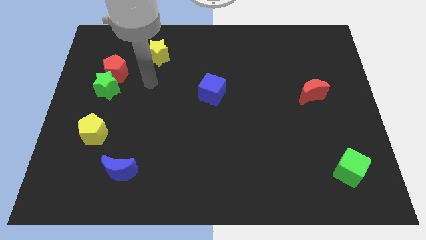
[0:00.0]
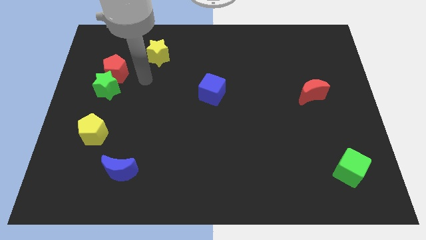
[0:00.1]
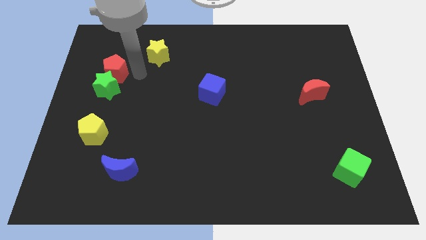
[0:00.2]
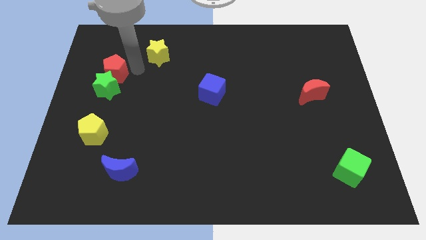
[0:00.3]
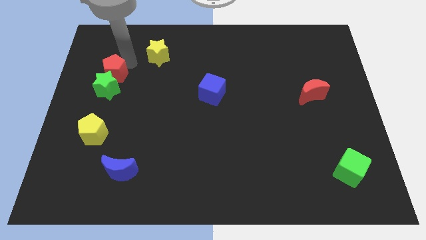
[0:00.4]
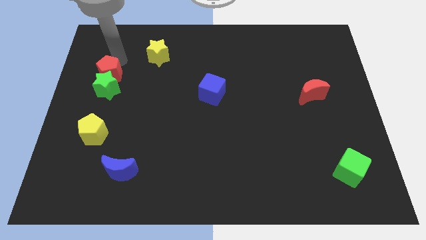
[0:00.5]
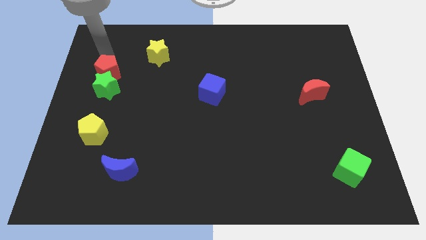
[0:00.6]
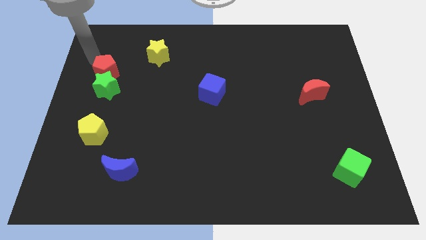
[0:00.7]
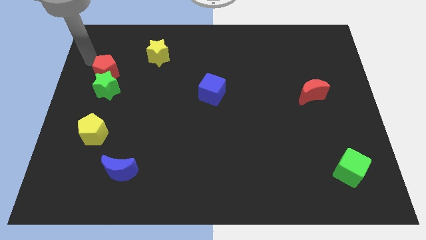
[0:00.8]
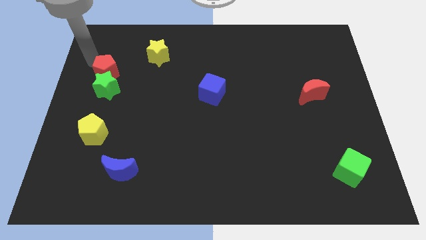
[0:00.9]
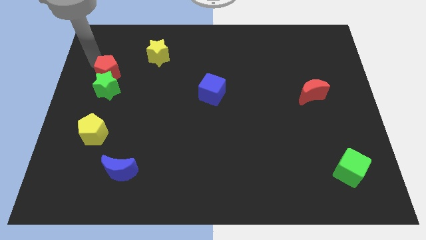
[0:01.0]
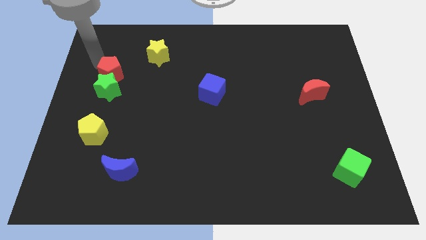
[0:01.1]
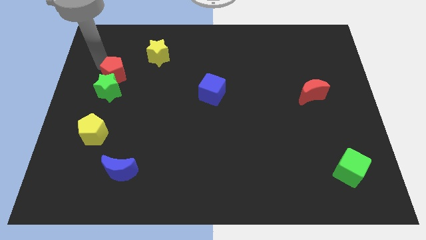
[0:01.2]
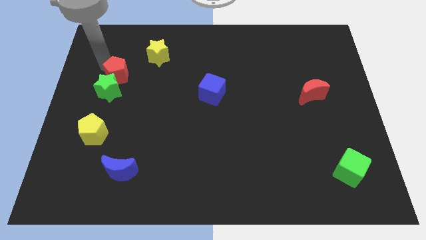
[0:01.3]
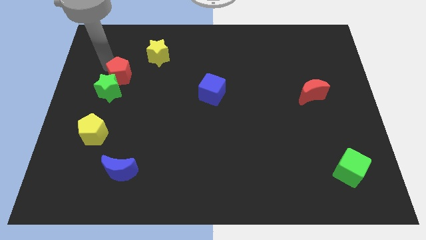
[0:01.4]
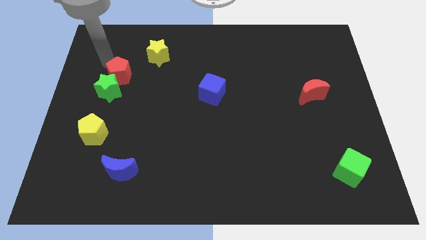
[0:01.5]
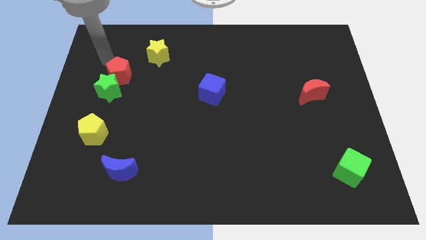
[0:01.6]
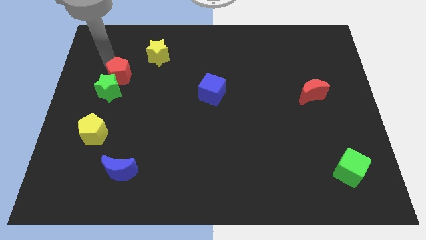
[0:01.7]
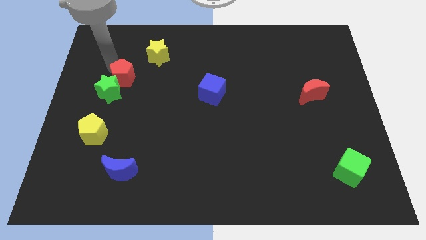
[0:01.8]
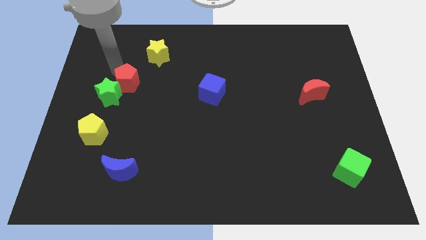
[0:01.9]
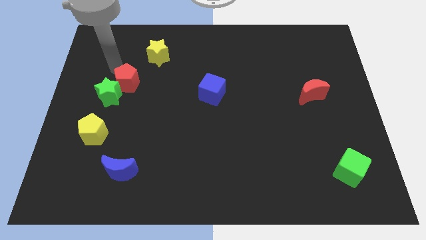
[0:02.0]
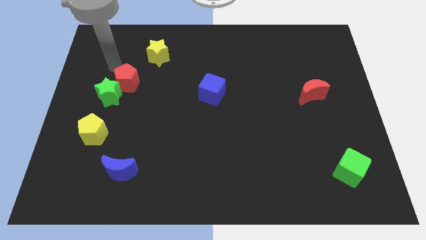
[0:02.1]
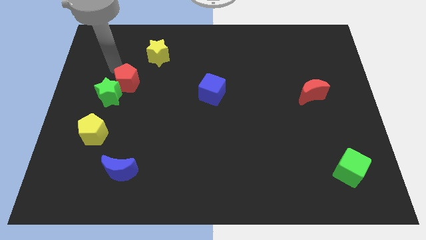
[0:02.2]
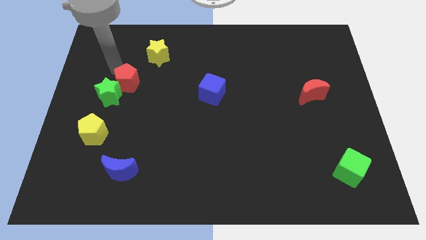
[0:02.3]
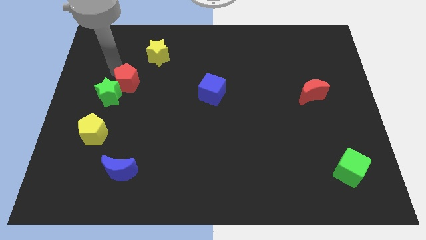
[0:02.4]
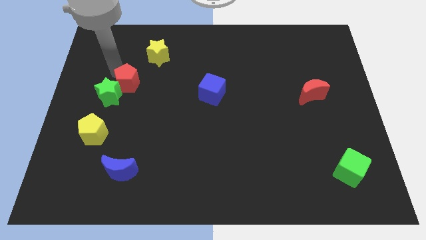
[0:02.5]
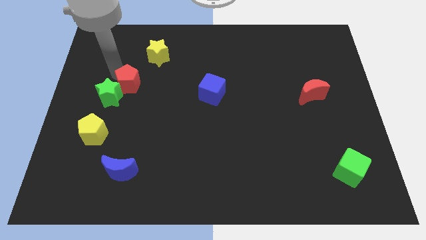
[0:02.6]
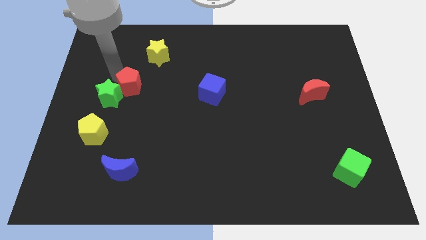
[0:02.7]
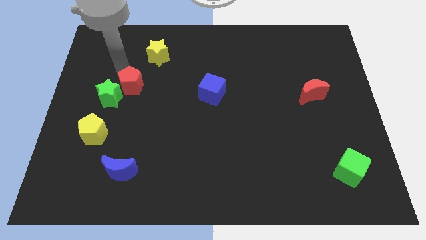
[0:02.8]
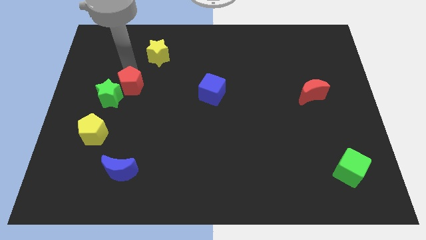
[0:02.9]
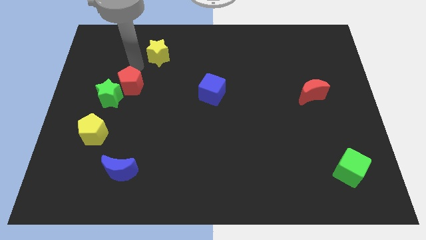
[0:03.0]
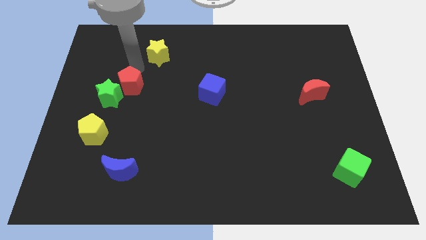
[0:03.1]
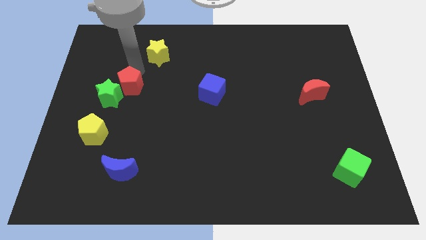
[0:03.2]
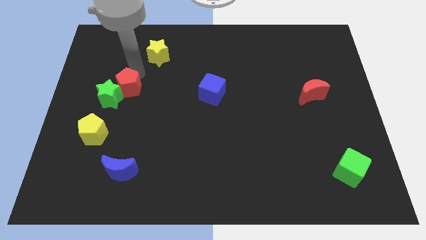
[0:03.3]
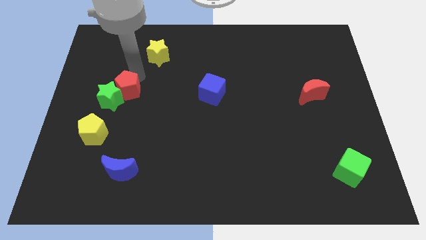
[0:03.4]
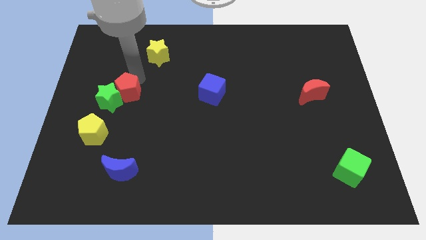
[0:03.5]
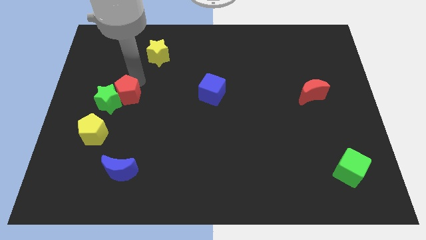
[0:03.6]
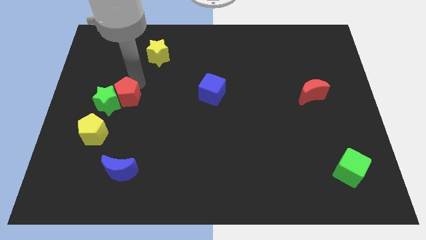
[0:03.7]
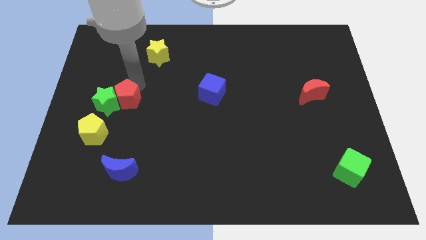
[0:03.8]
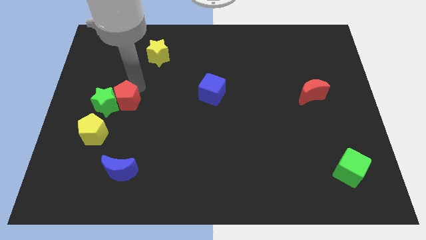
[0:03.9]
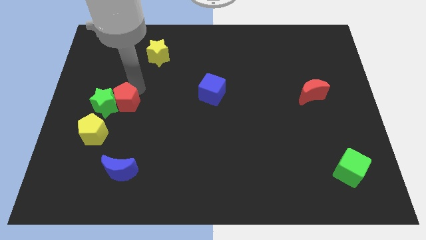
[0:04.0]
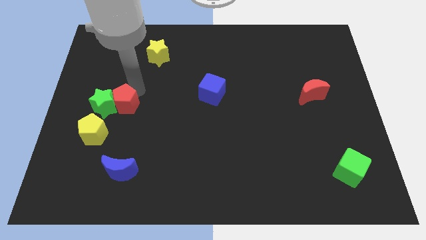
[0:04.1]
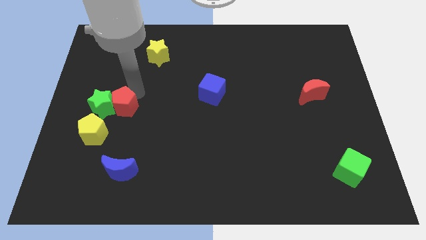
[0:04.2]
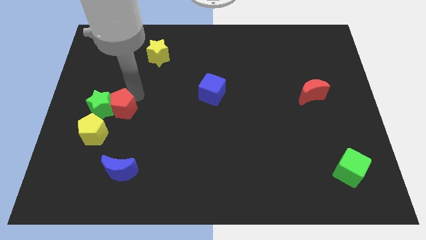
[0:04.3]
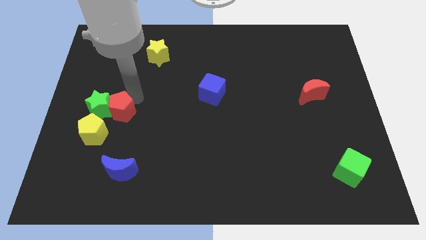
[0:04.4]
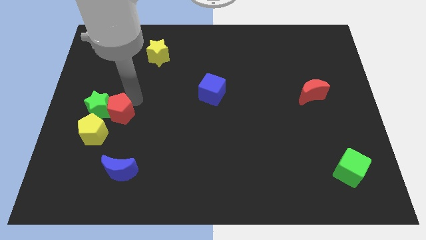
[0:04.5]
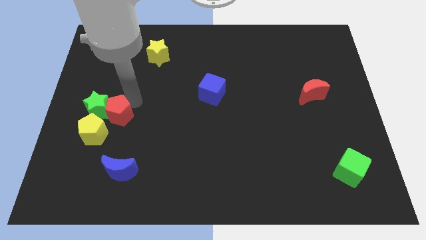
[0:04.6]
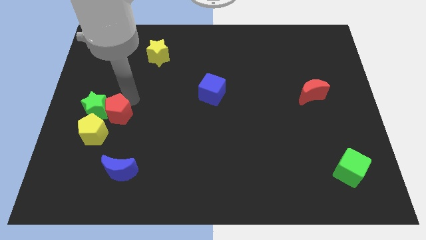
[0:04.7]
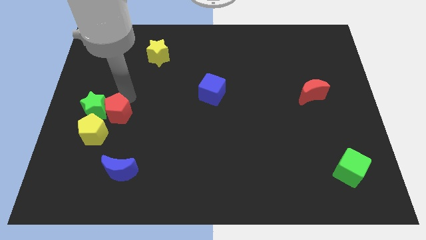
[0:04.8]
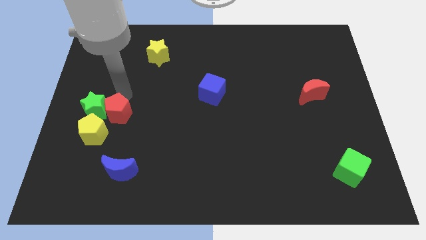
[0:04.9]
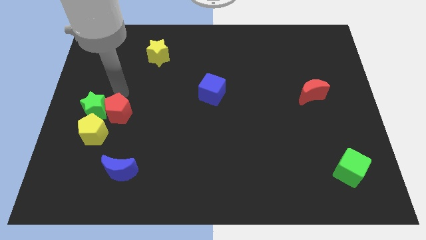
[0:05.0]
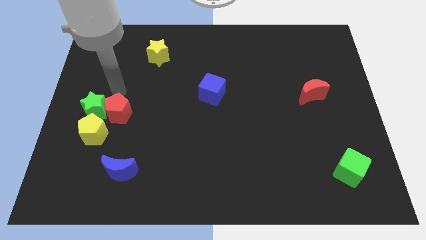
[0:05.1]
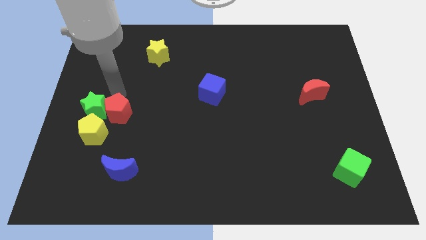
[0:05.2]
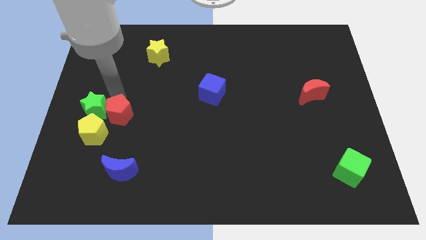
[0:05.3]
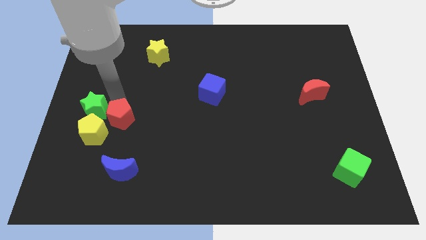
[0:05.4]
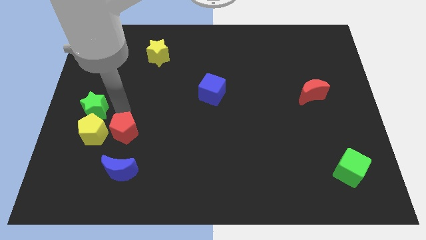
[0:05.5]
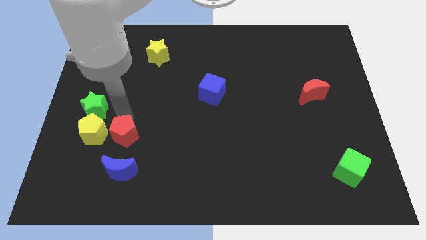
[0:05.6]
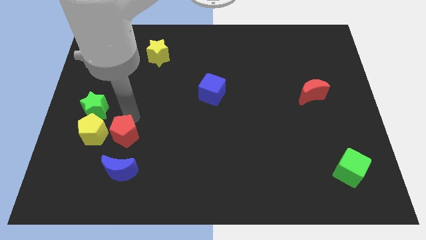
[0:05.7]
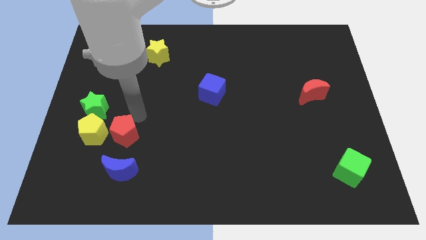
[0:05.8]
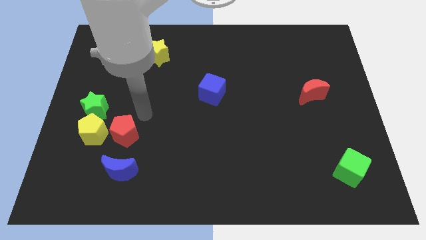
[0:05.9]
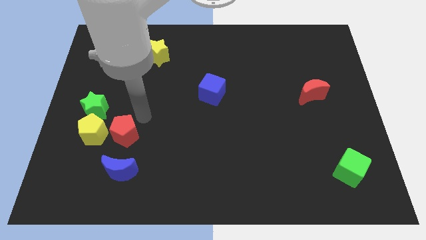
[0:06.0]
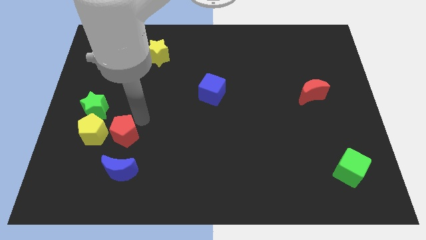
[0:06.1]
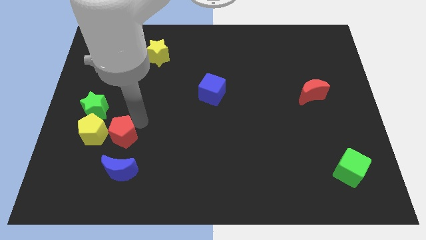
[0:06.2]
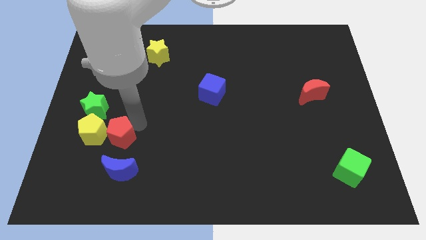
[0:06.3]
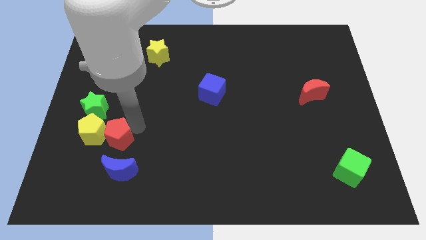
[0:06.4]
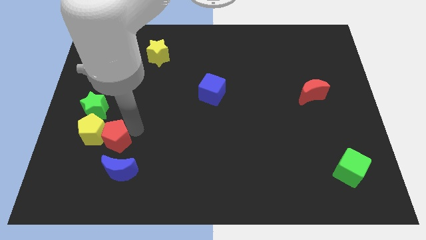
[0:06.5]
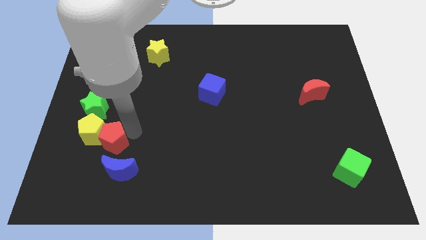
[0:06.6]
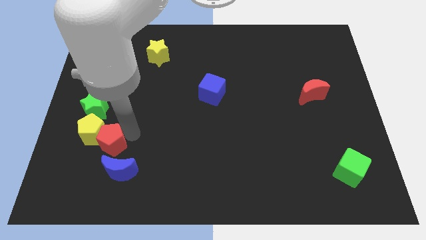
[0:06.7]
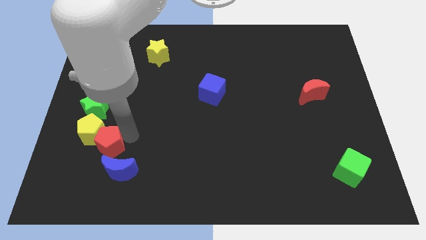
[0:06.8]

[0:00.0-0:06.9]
slide the red pentagon to the bottom side of the yellow pentagon
